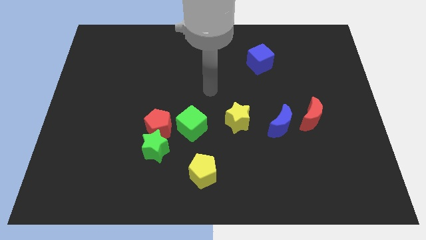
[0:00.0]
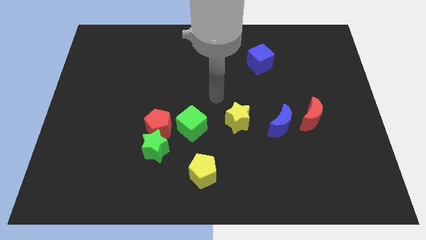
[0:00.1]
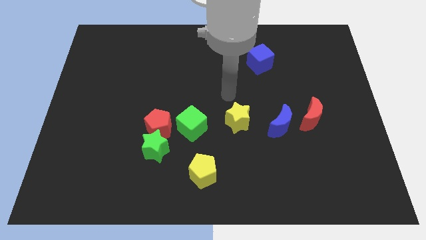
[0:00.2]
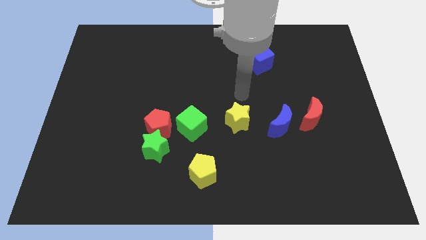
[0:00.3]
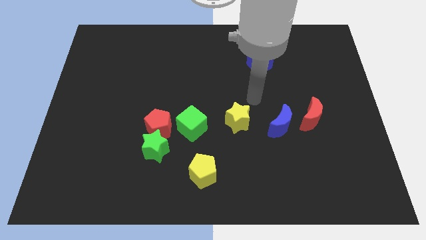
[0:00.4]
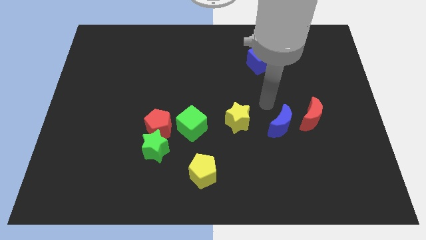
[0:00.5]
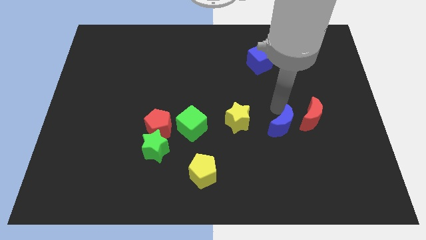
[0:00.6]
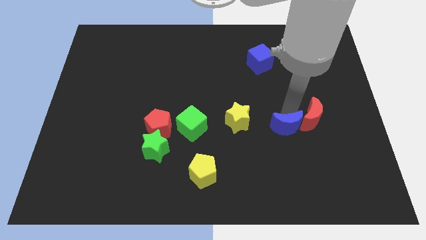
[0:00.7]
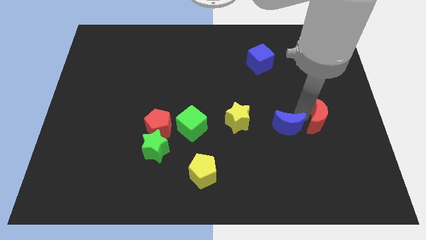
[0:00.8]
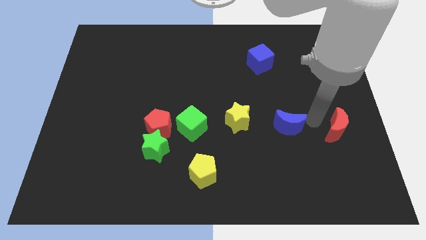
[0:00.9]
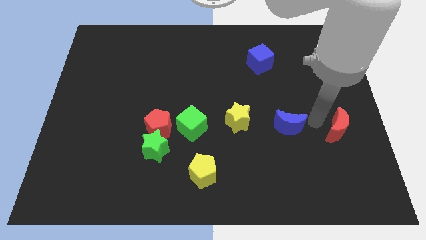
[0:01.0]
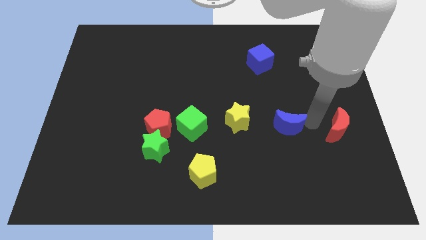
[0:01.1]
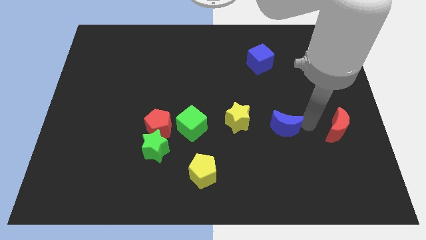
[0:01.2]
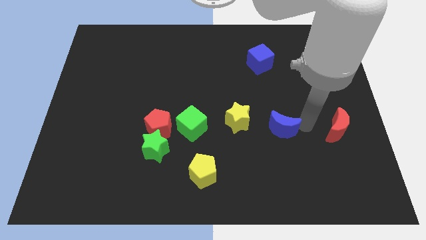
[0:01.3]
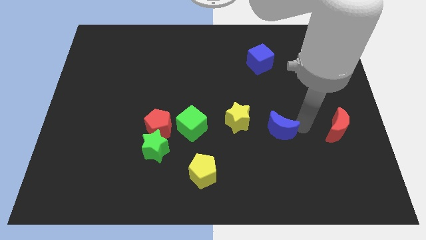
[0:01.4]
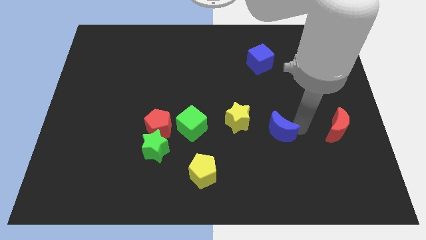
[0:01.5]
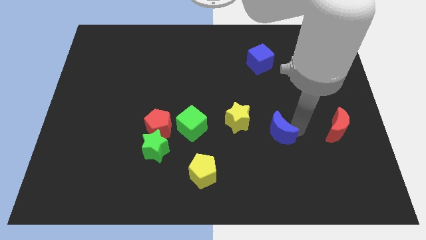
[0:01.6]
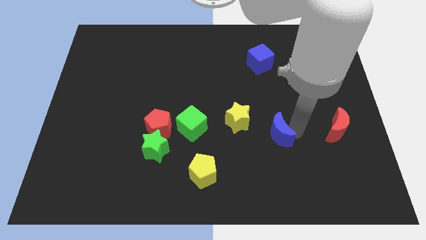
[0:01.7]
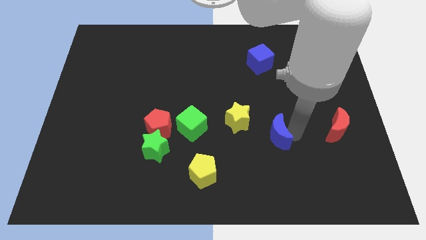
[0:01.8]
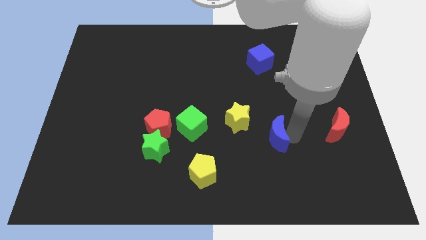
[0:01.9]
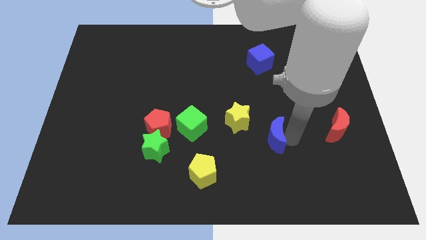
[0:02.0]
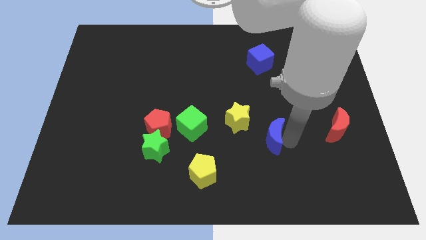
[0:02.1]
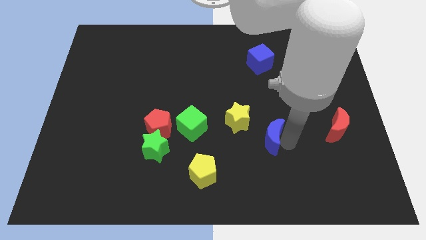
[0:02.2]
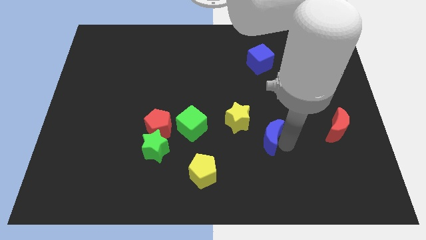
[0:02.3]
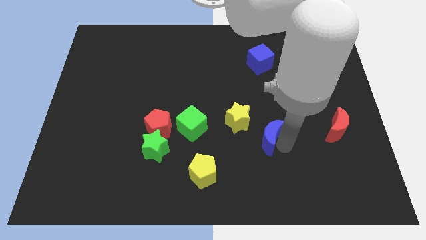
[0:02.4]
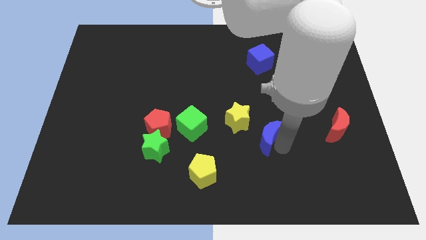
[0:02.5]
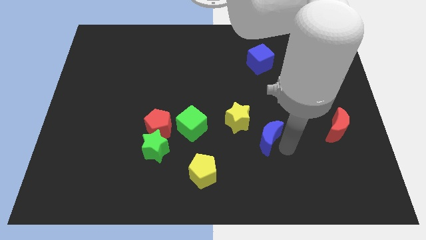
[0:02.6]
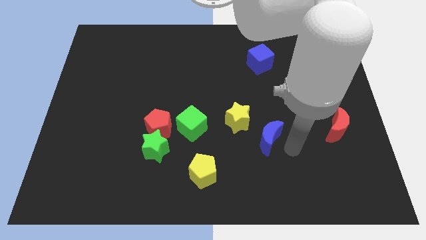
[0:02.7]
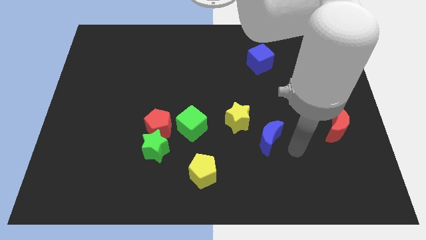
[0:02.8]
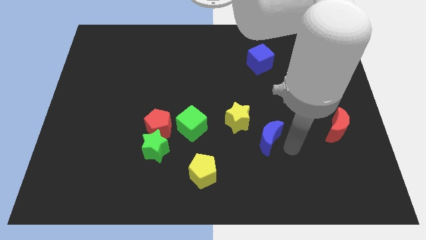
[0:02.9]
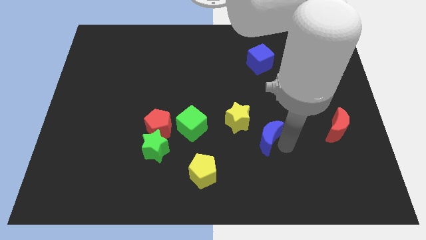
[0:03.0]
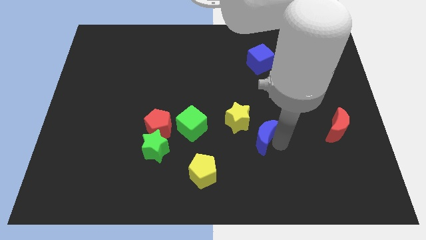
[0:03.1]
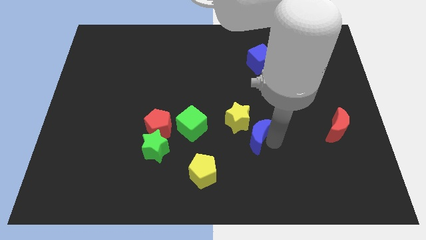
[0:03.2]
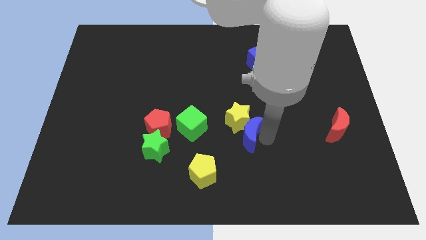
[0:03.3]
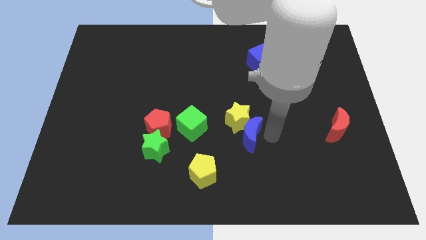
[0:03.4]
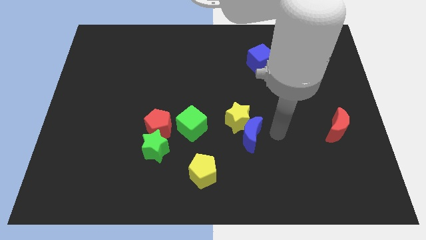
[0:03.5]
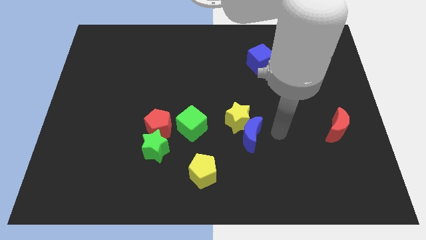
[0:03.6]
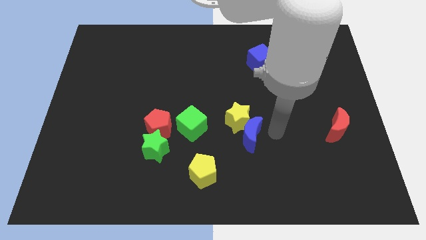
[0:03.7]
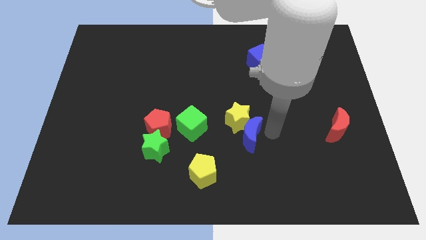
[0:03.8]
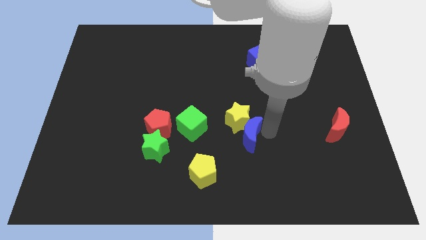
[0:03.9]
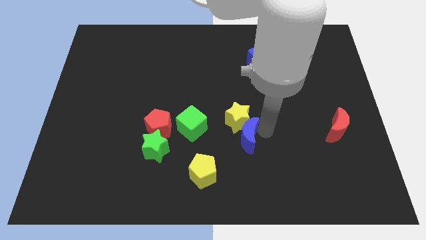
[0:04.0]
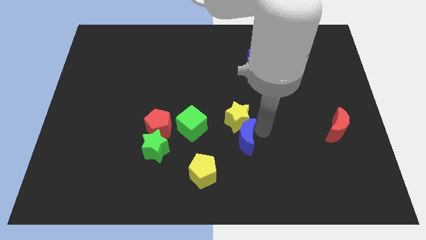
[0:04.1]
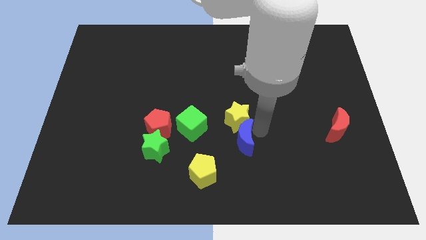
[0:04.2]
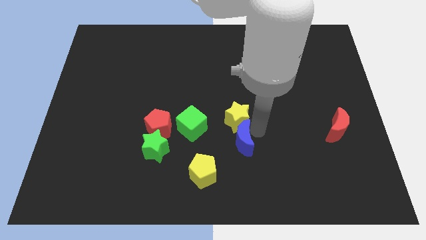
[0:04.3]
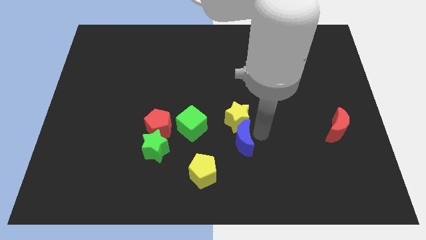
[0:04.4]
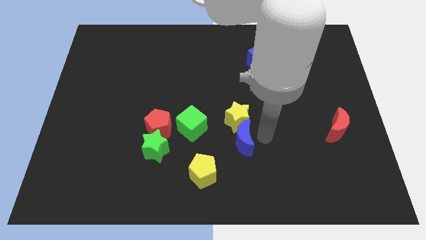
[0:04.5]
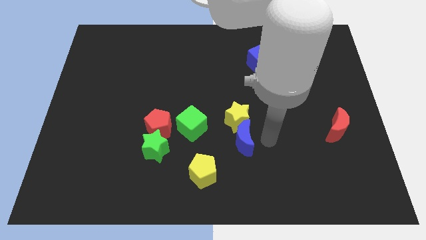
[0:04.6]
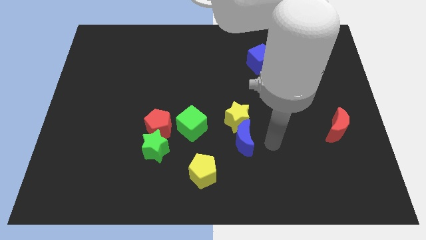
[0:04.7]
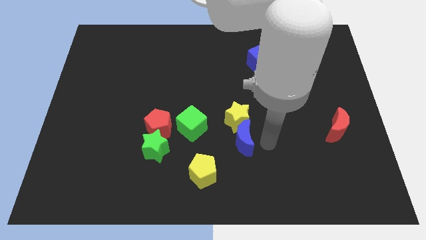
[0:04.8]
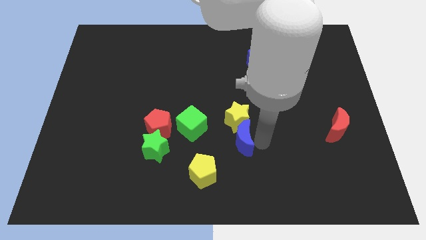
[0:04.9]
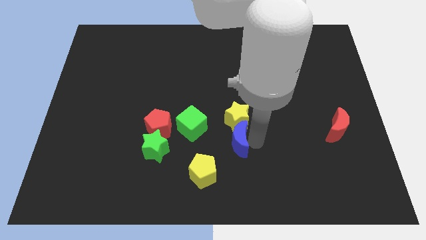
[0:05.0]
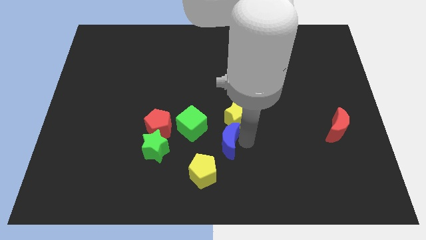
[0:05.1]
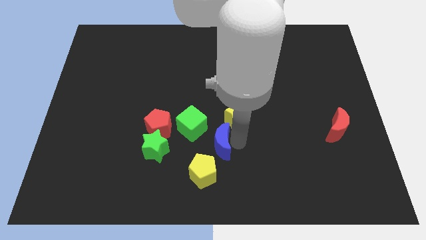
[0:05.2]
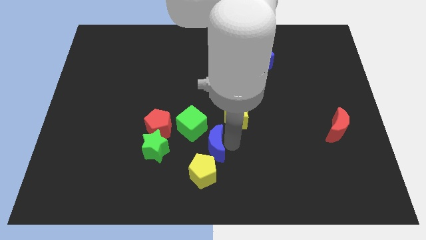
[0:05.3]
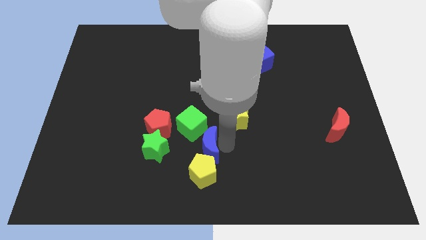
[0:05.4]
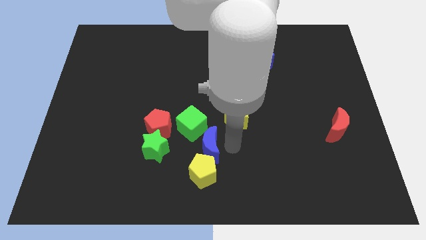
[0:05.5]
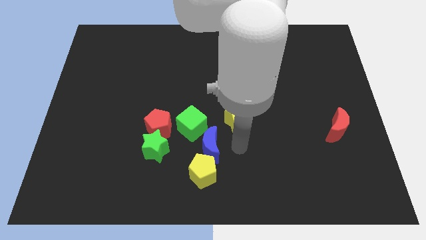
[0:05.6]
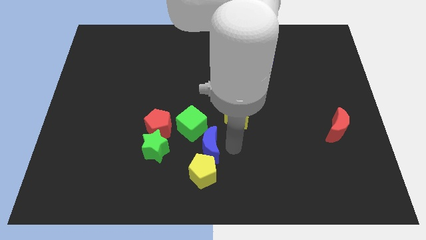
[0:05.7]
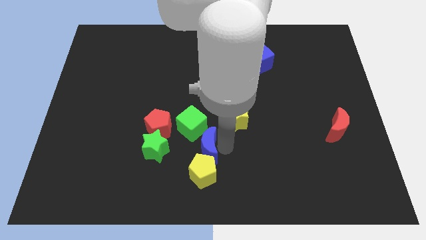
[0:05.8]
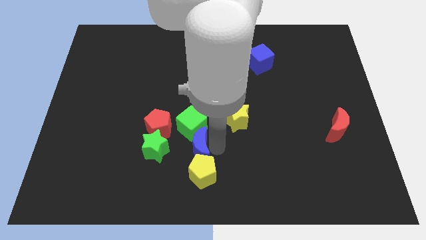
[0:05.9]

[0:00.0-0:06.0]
slide the blue moon to the bottom right of the red pentagon

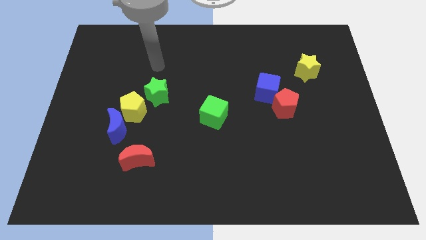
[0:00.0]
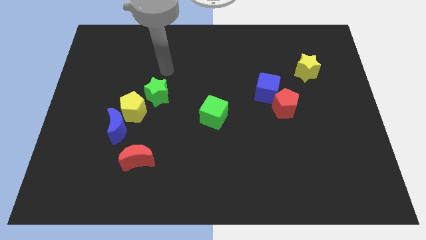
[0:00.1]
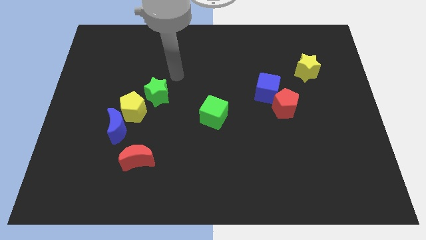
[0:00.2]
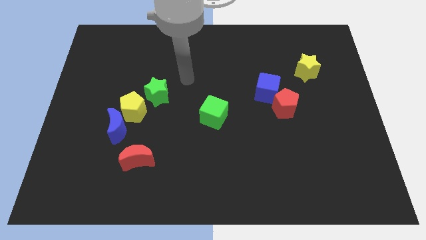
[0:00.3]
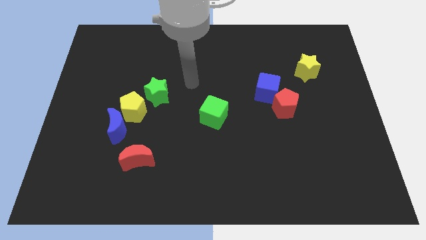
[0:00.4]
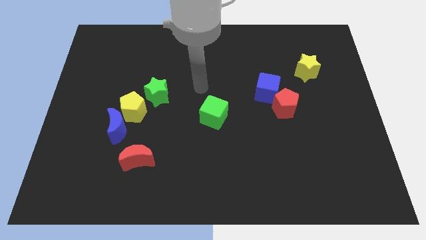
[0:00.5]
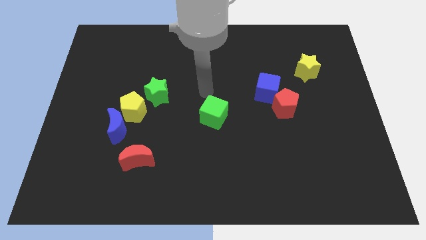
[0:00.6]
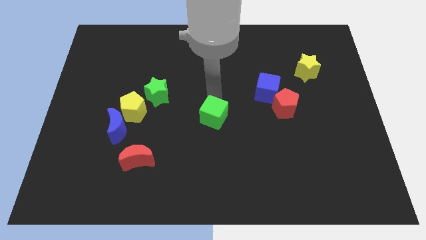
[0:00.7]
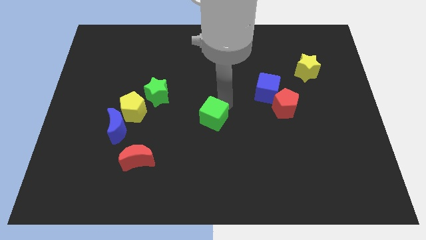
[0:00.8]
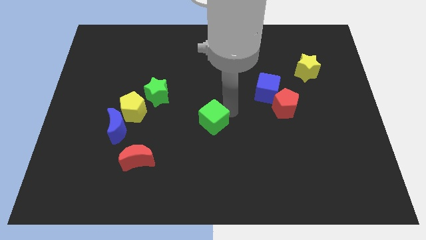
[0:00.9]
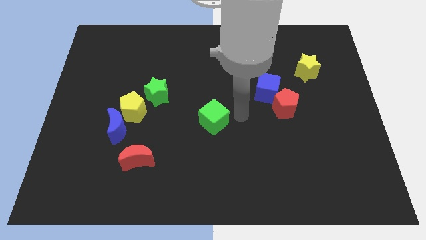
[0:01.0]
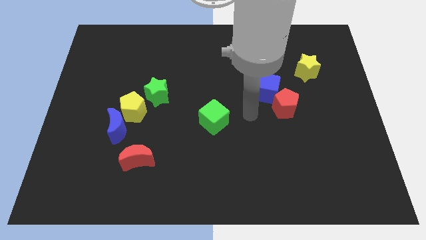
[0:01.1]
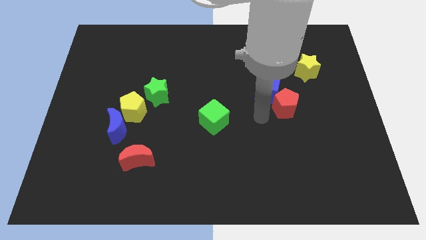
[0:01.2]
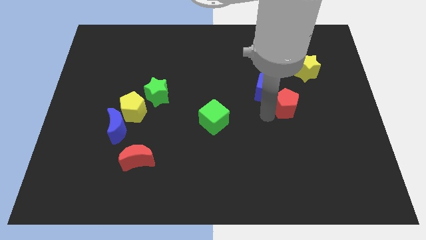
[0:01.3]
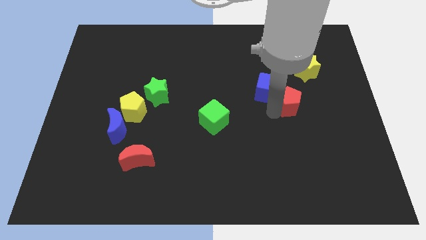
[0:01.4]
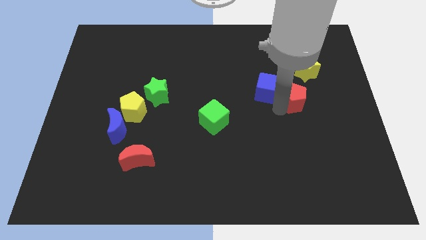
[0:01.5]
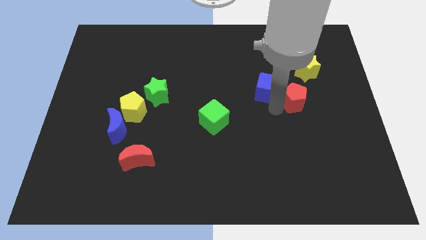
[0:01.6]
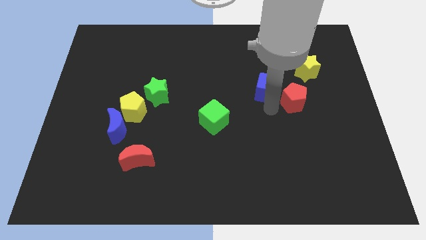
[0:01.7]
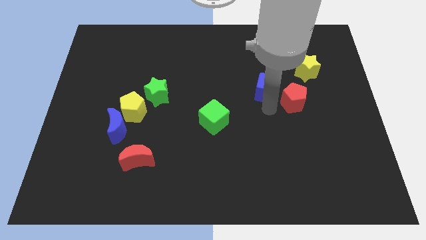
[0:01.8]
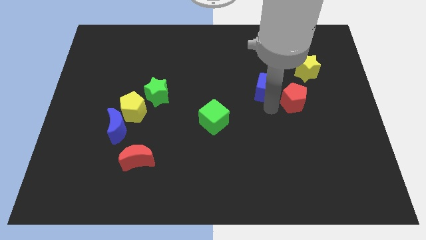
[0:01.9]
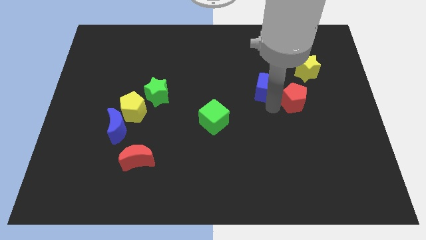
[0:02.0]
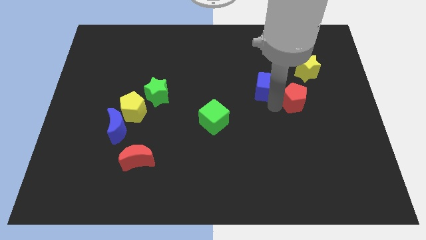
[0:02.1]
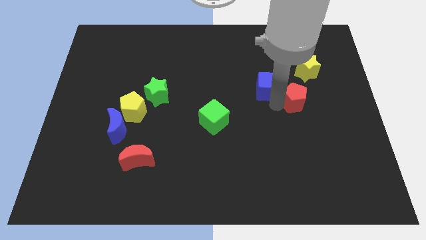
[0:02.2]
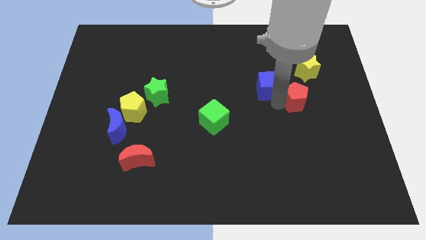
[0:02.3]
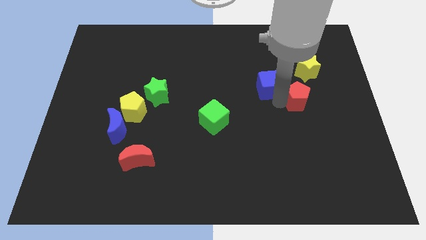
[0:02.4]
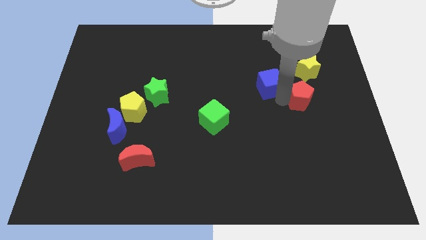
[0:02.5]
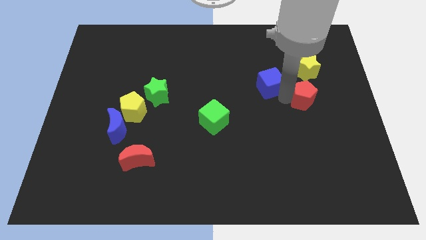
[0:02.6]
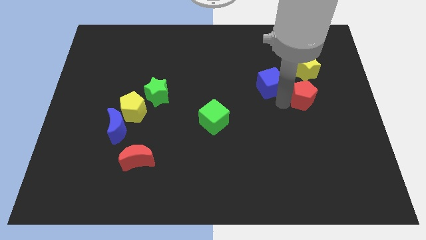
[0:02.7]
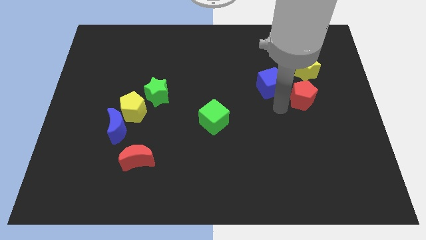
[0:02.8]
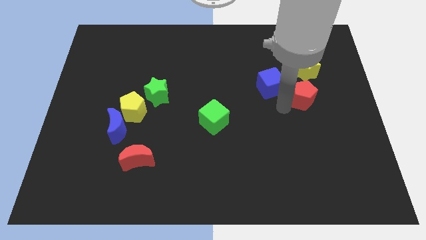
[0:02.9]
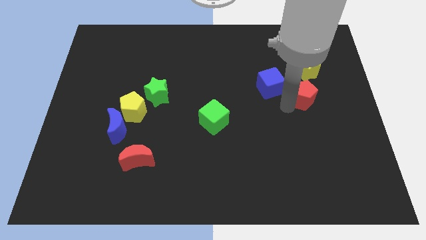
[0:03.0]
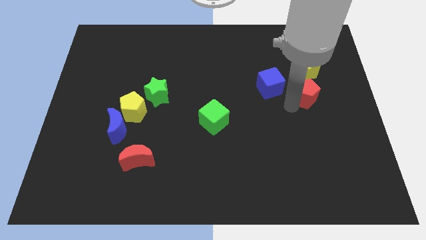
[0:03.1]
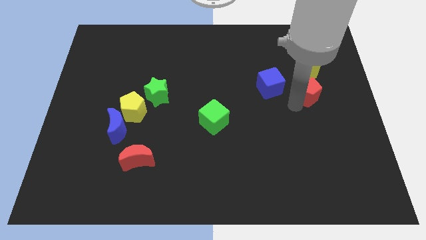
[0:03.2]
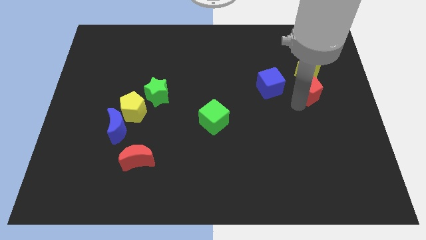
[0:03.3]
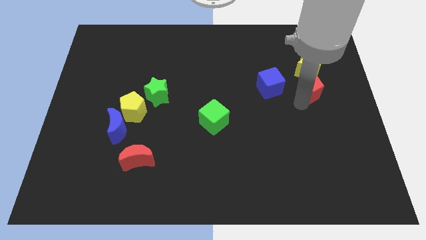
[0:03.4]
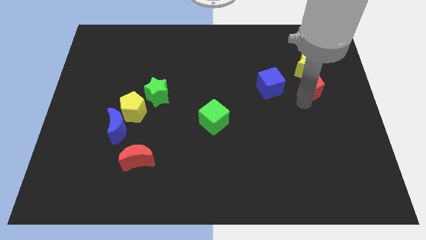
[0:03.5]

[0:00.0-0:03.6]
put the red pentagon to the bottom right of the yellow star
